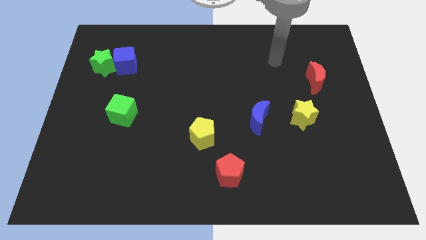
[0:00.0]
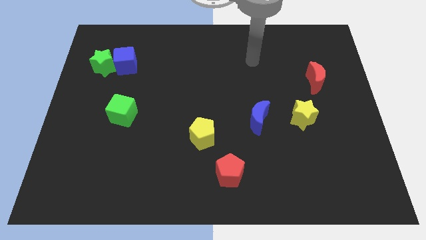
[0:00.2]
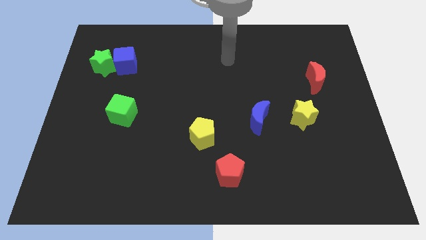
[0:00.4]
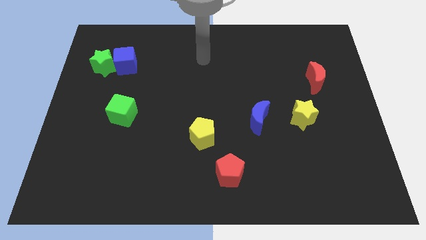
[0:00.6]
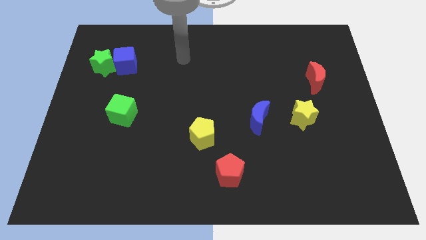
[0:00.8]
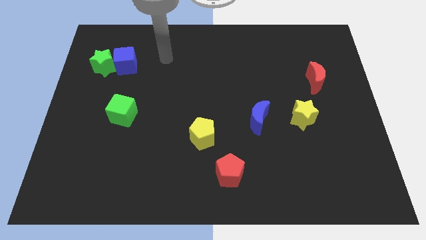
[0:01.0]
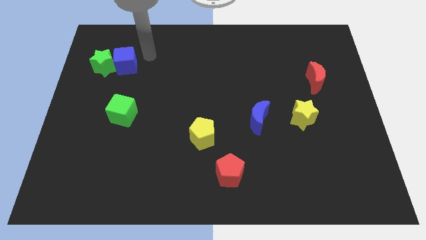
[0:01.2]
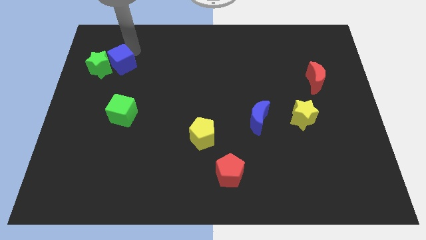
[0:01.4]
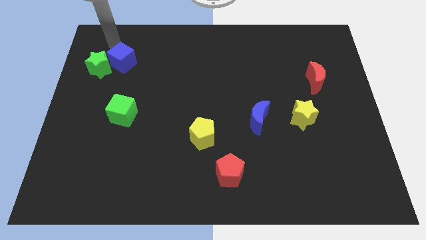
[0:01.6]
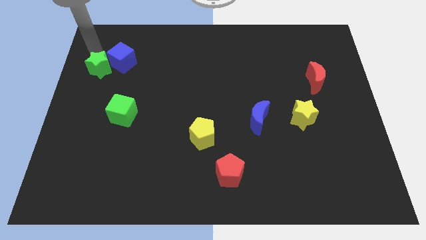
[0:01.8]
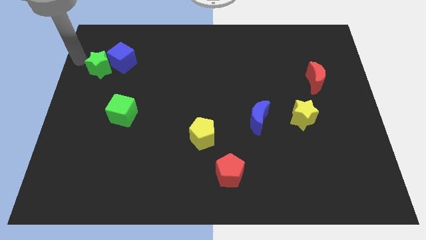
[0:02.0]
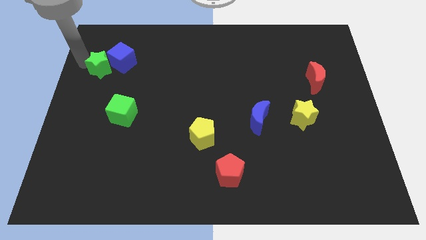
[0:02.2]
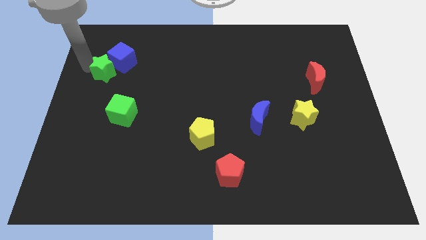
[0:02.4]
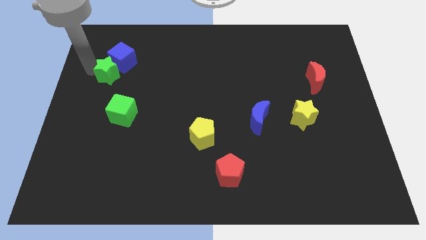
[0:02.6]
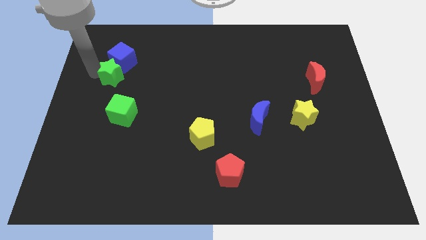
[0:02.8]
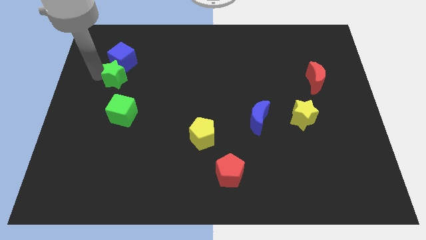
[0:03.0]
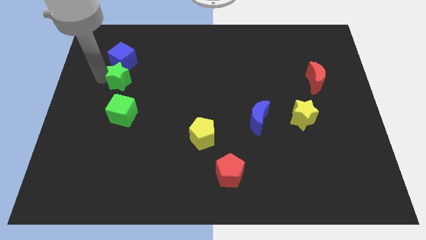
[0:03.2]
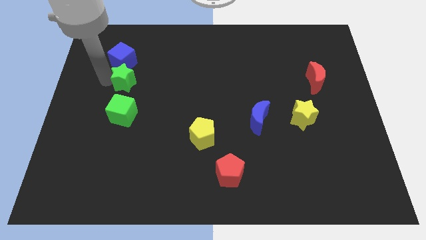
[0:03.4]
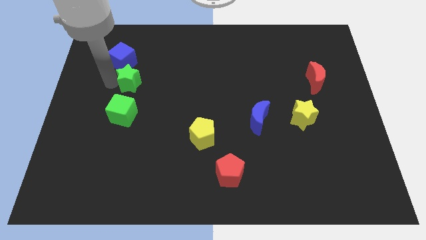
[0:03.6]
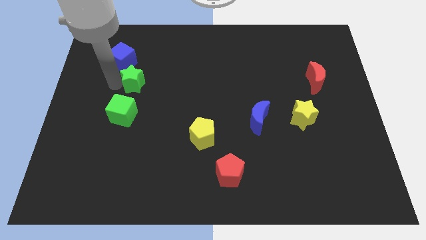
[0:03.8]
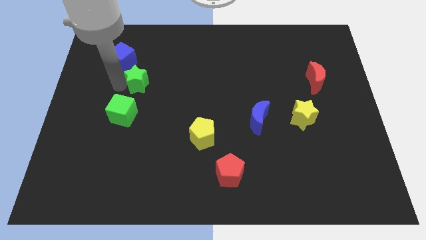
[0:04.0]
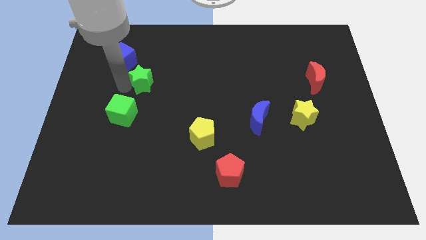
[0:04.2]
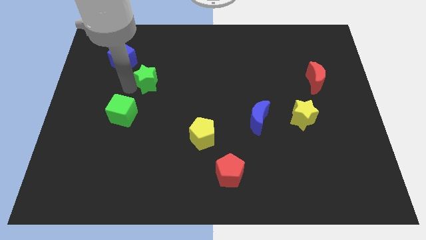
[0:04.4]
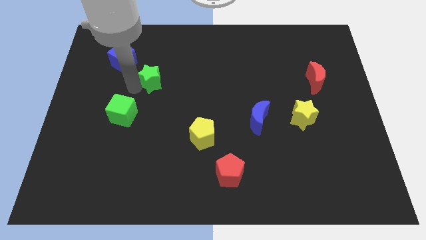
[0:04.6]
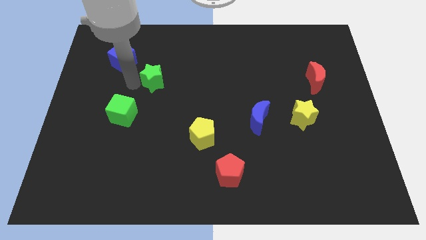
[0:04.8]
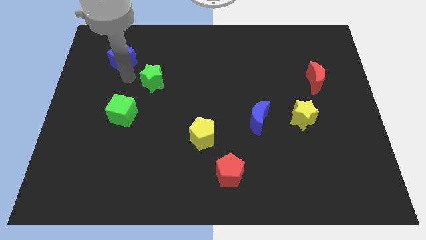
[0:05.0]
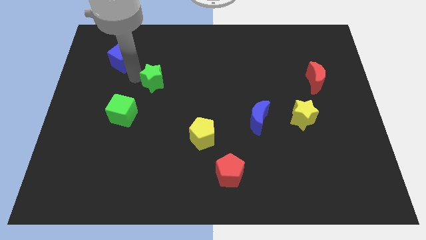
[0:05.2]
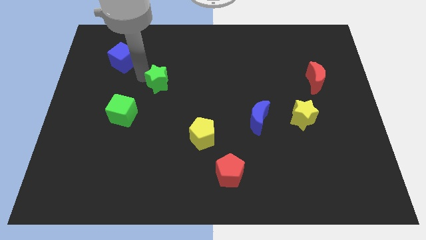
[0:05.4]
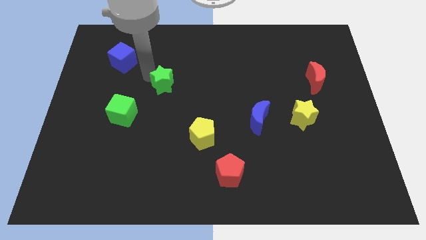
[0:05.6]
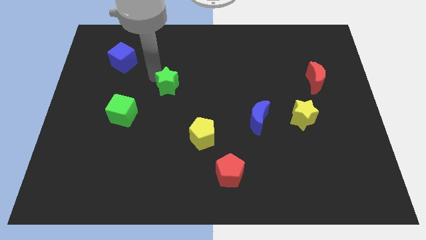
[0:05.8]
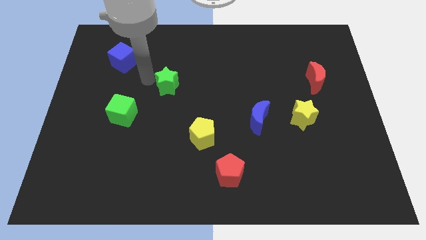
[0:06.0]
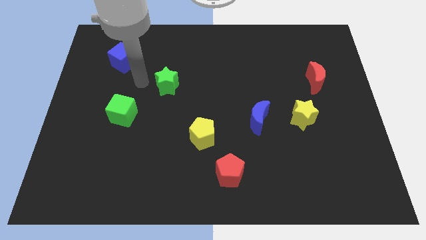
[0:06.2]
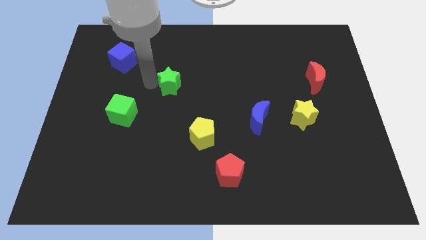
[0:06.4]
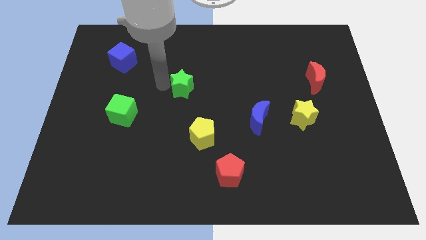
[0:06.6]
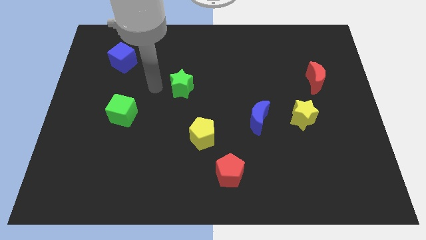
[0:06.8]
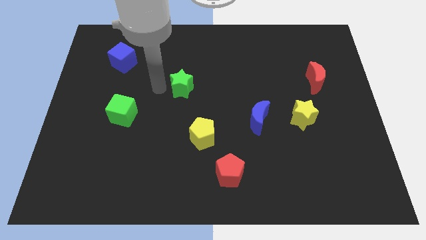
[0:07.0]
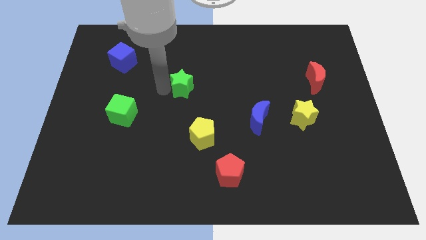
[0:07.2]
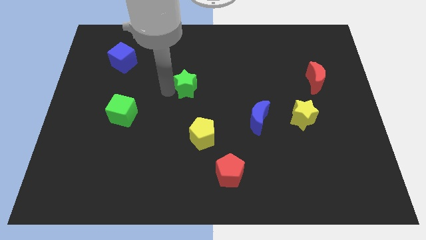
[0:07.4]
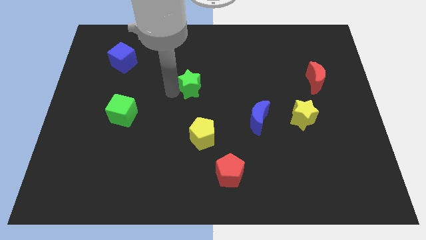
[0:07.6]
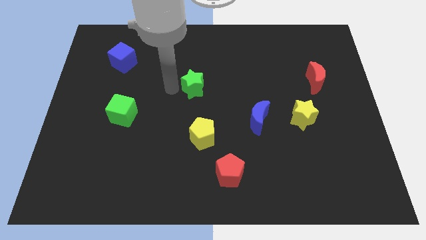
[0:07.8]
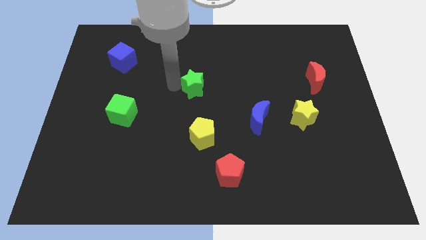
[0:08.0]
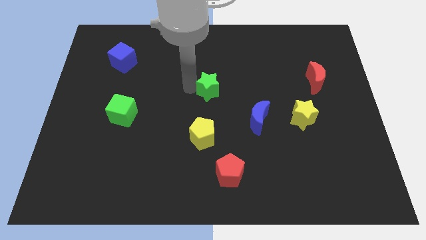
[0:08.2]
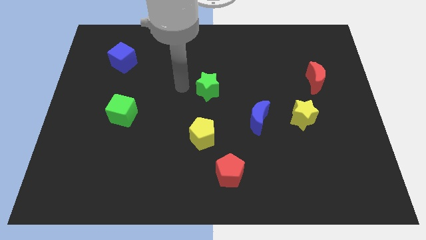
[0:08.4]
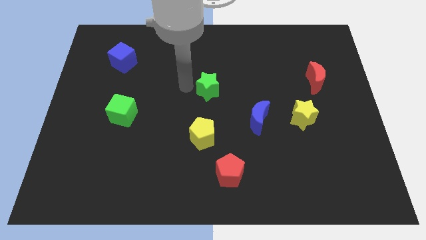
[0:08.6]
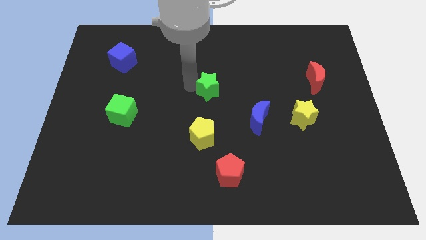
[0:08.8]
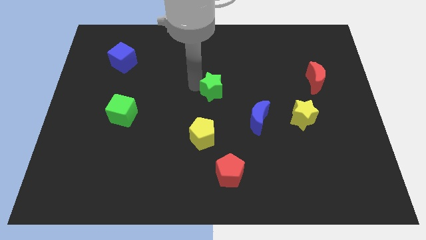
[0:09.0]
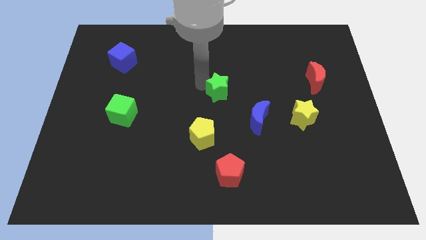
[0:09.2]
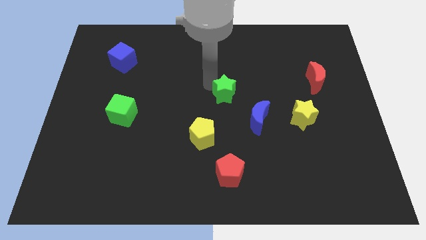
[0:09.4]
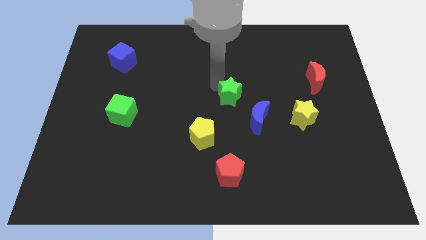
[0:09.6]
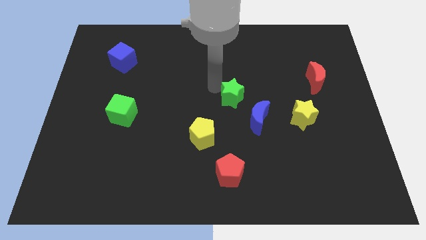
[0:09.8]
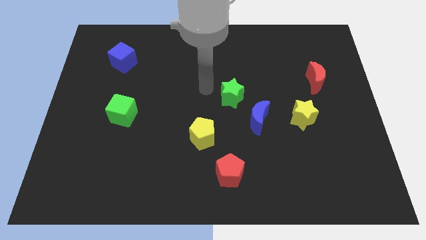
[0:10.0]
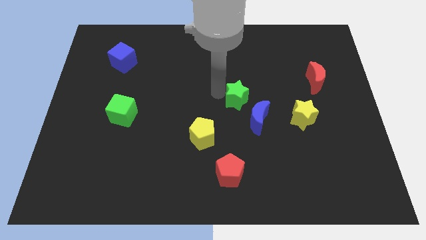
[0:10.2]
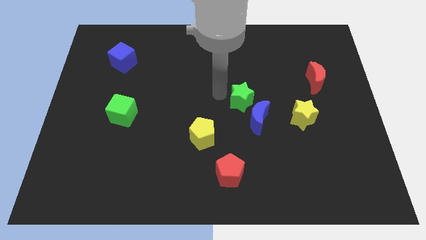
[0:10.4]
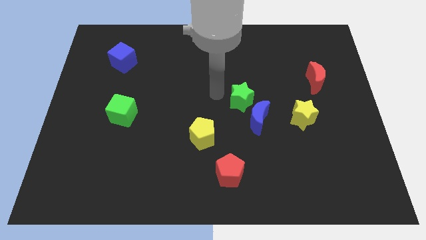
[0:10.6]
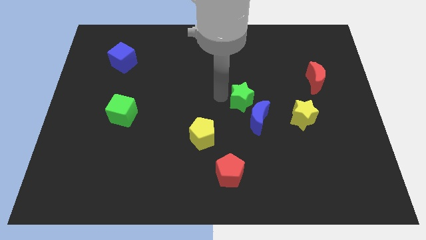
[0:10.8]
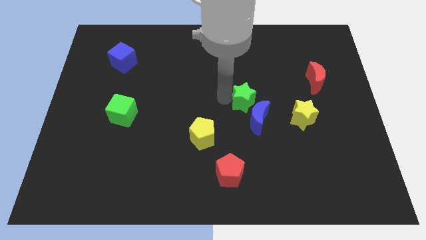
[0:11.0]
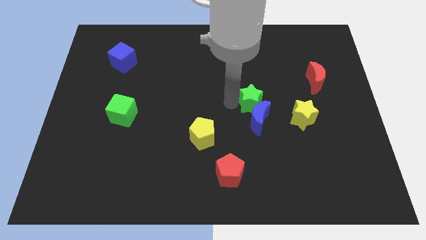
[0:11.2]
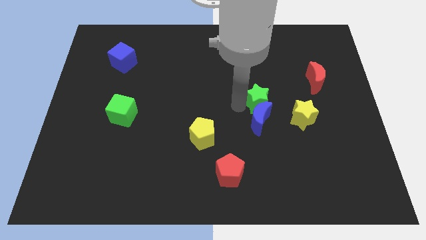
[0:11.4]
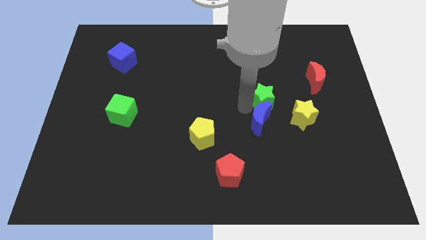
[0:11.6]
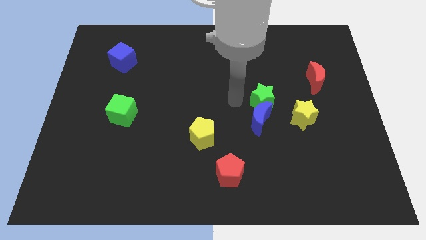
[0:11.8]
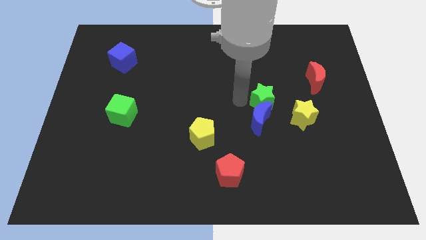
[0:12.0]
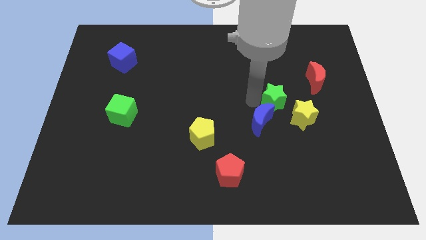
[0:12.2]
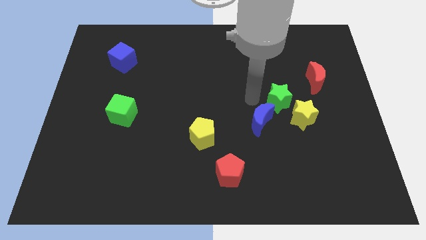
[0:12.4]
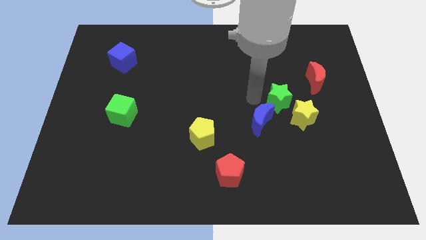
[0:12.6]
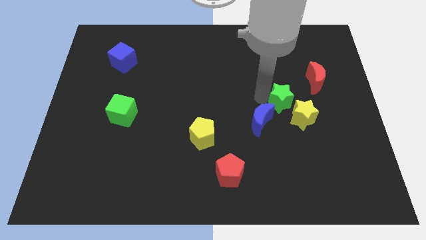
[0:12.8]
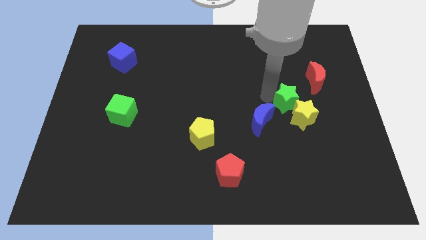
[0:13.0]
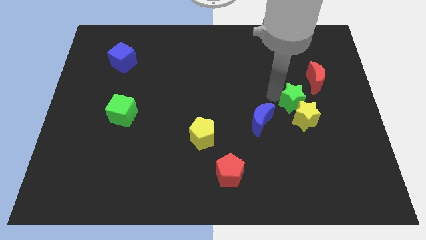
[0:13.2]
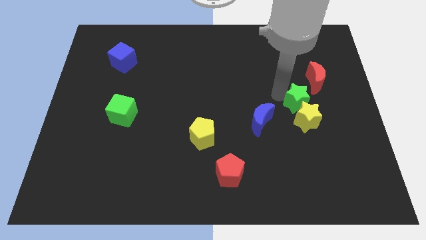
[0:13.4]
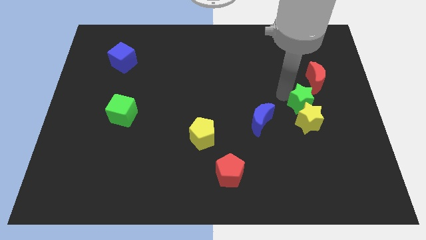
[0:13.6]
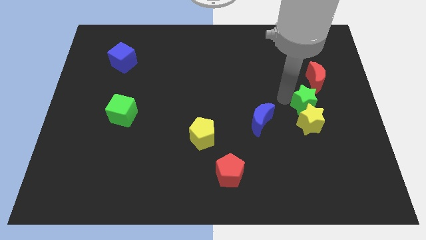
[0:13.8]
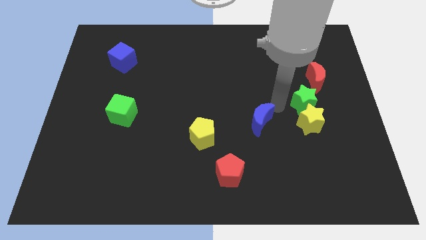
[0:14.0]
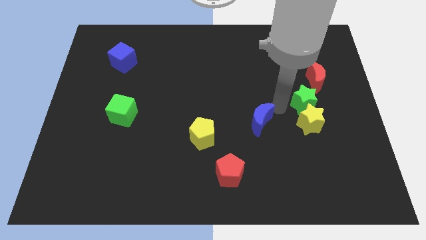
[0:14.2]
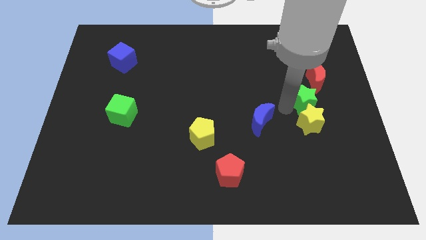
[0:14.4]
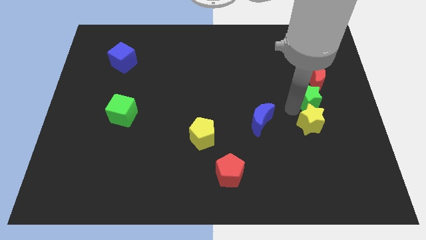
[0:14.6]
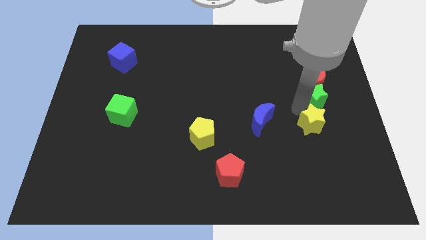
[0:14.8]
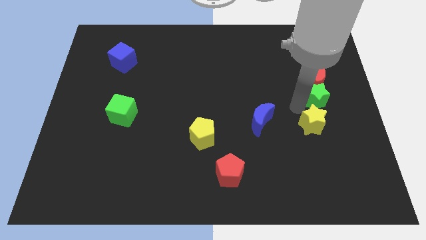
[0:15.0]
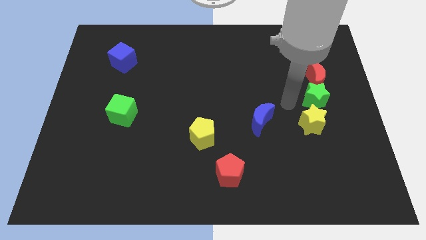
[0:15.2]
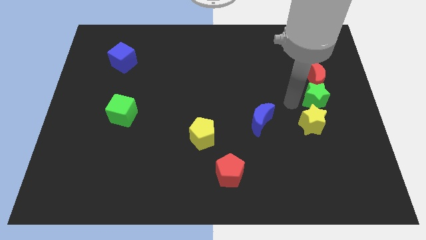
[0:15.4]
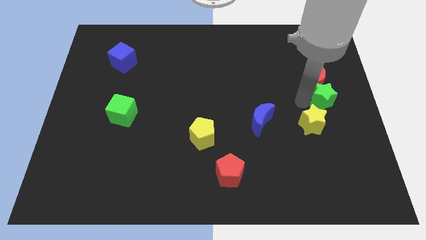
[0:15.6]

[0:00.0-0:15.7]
slide the green star to the right side
